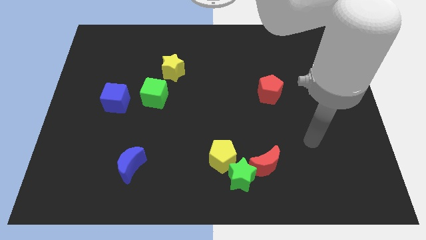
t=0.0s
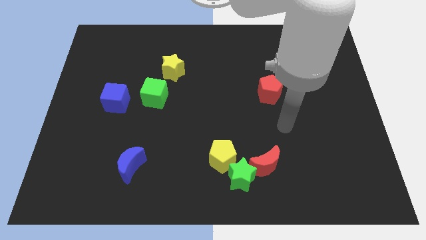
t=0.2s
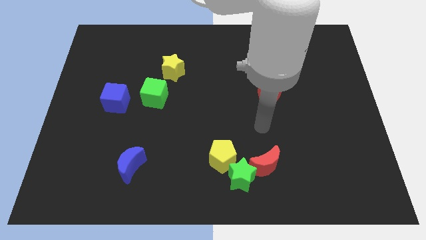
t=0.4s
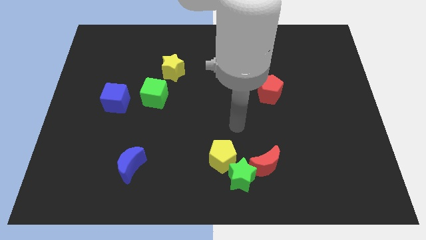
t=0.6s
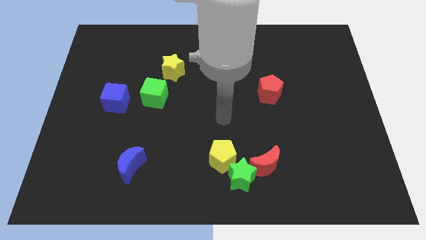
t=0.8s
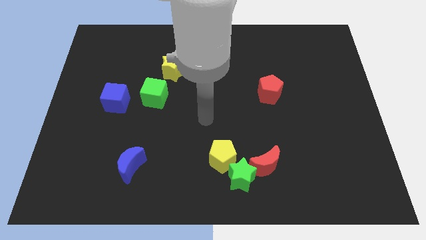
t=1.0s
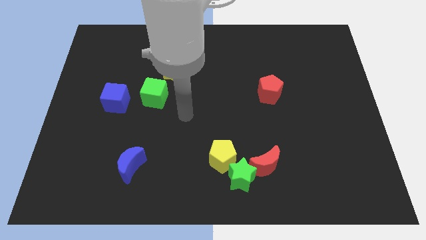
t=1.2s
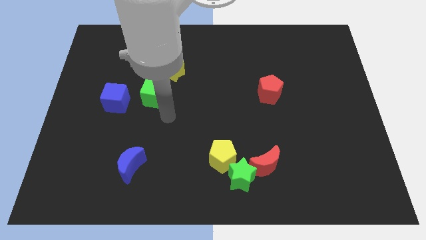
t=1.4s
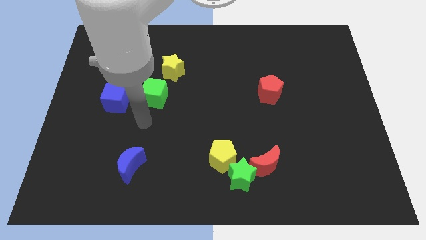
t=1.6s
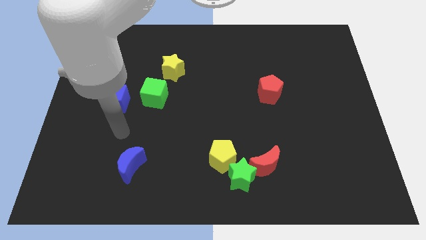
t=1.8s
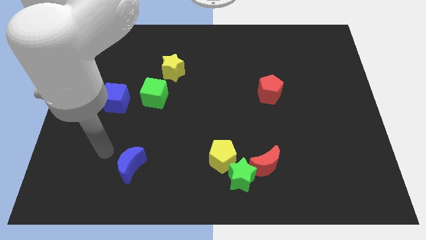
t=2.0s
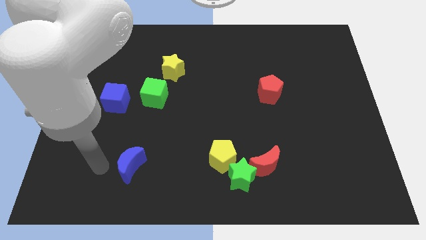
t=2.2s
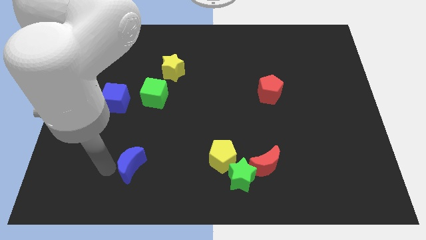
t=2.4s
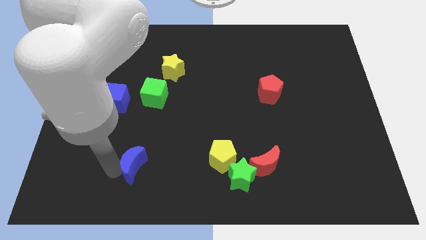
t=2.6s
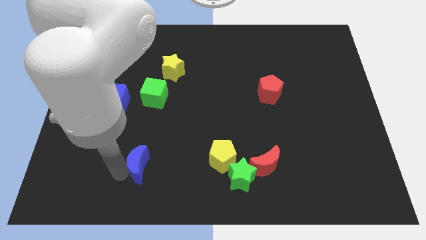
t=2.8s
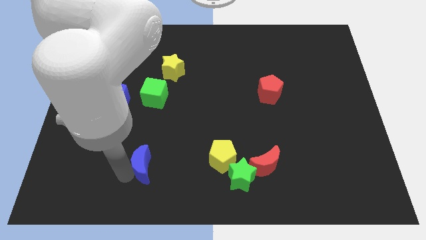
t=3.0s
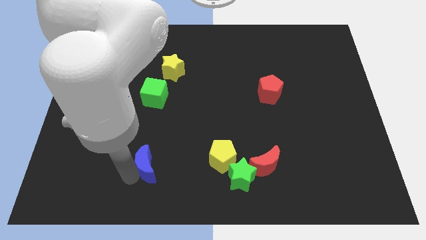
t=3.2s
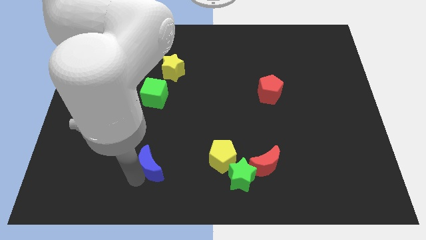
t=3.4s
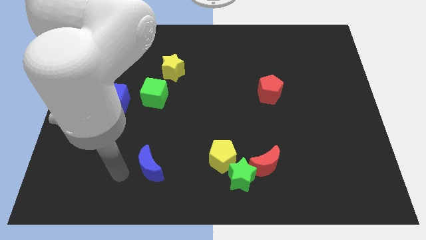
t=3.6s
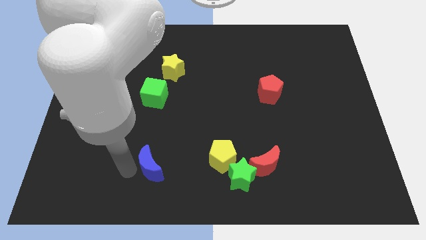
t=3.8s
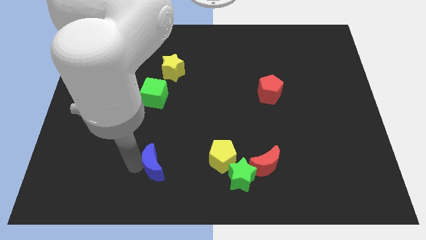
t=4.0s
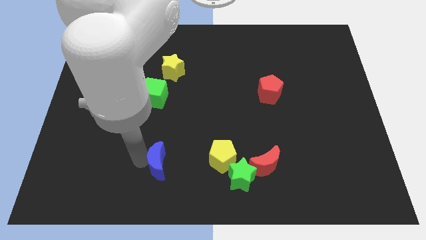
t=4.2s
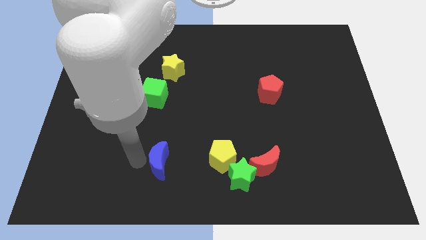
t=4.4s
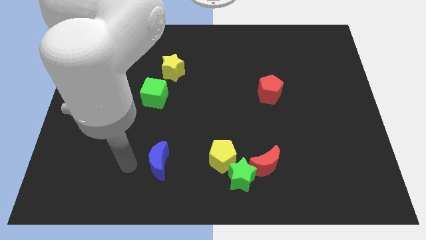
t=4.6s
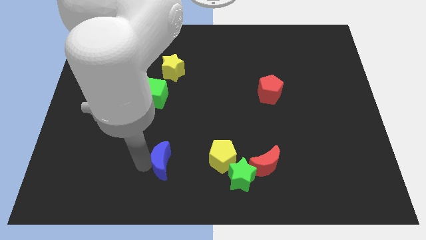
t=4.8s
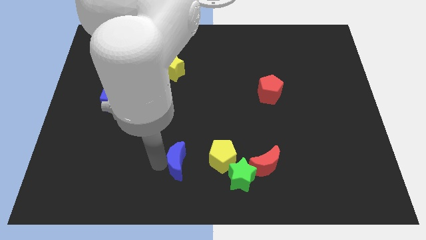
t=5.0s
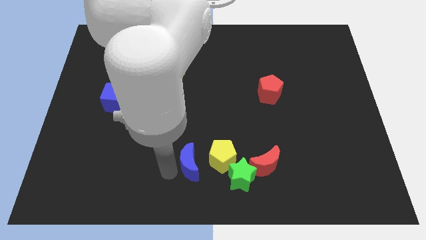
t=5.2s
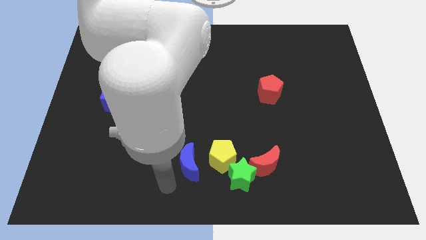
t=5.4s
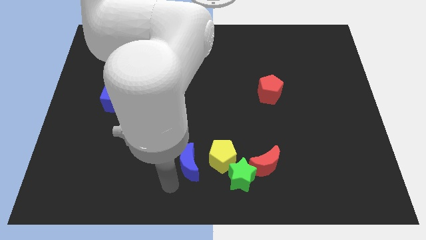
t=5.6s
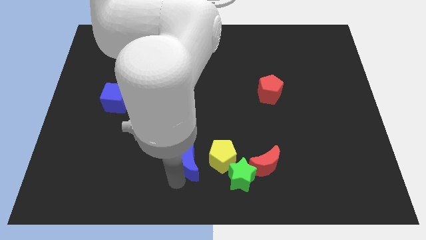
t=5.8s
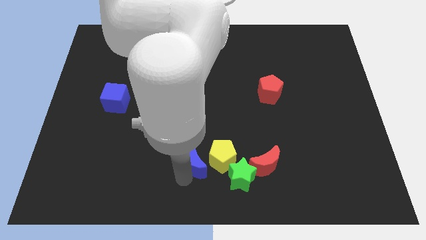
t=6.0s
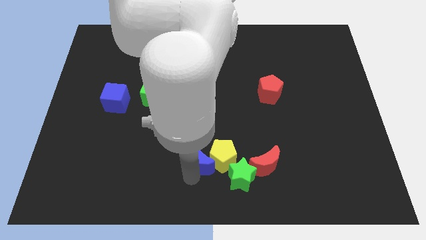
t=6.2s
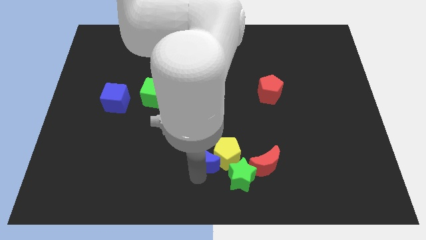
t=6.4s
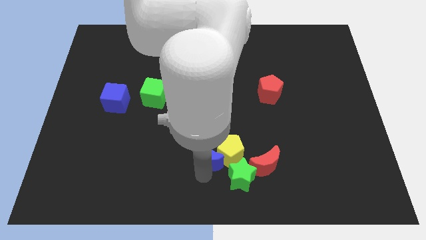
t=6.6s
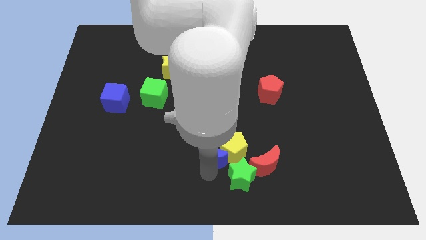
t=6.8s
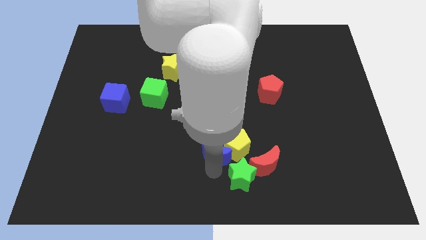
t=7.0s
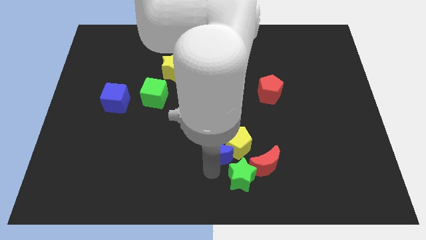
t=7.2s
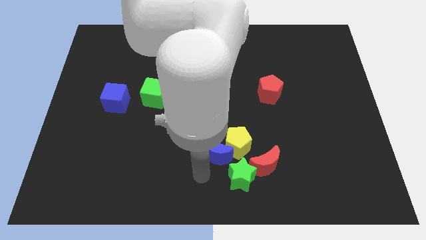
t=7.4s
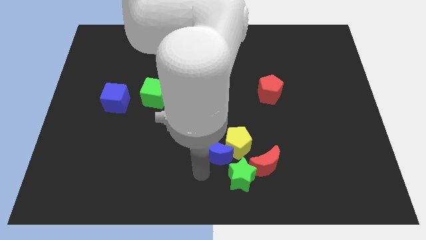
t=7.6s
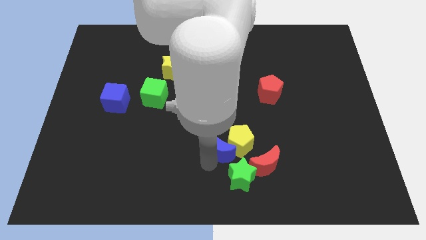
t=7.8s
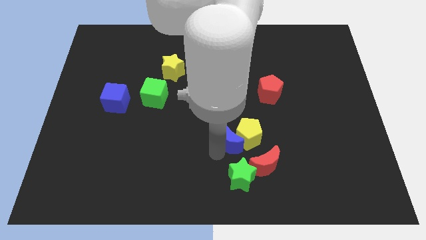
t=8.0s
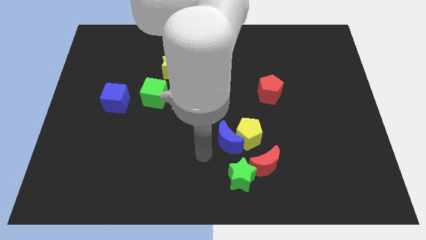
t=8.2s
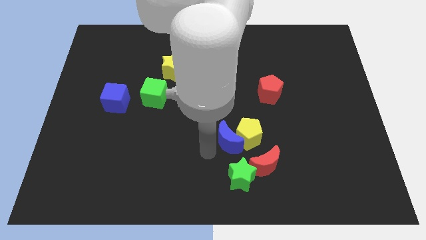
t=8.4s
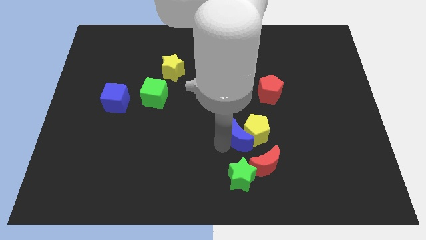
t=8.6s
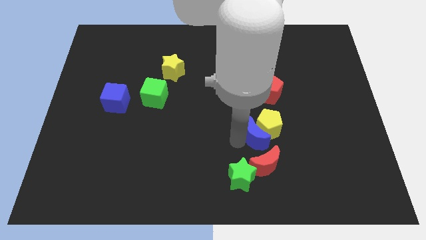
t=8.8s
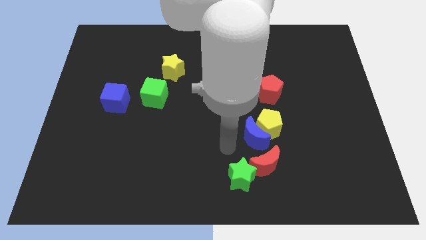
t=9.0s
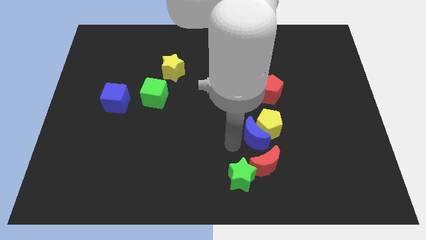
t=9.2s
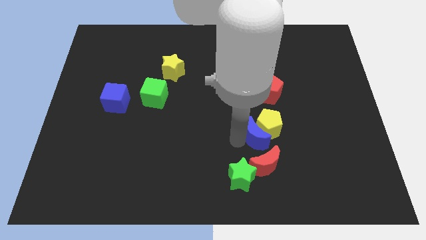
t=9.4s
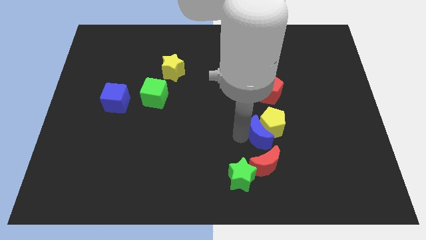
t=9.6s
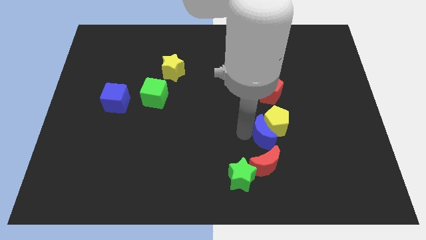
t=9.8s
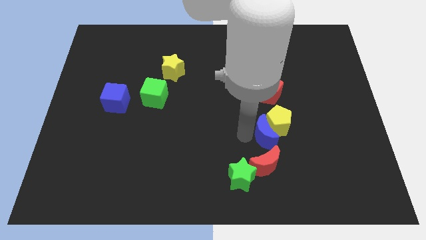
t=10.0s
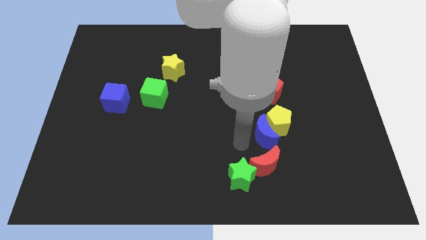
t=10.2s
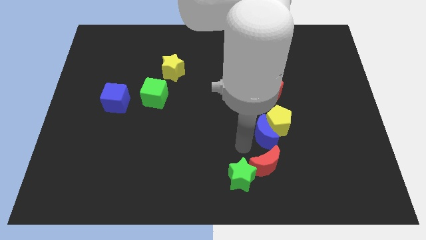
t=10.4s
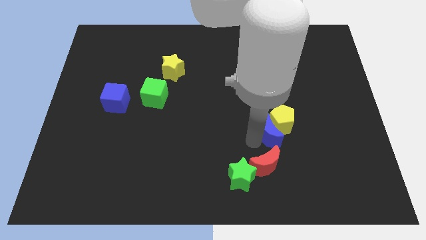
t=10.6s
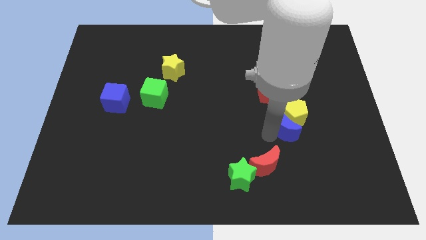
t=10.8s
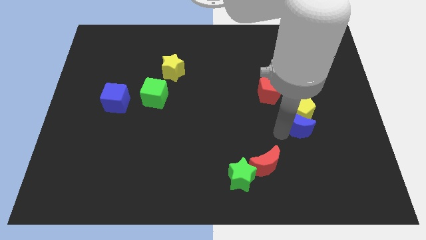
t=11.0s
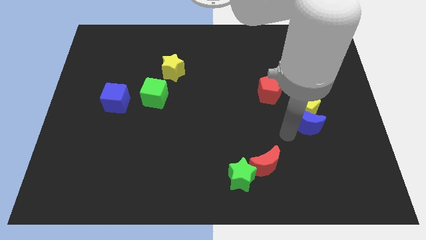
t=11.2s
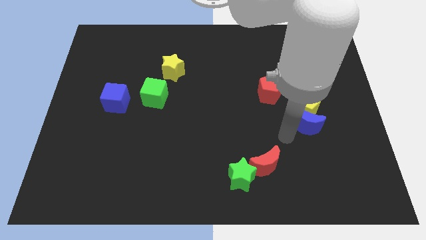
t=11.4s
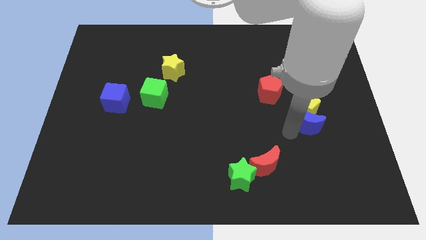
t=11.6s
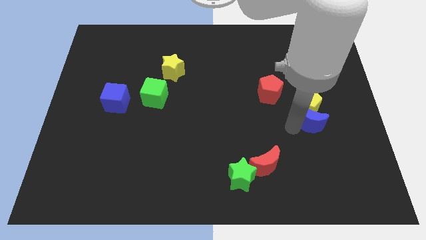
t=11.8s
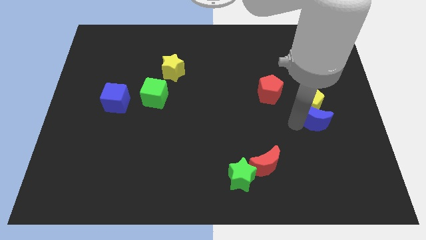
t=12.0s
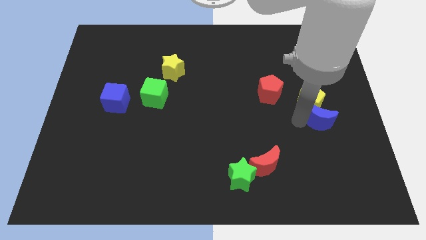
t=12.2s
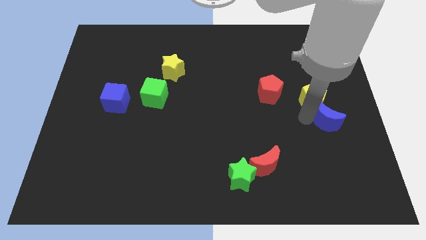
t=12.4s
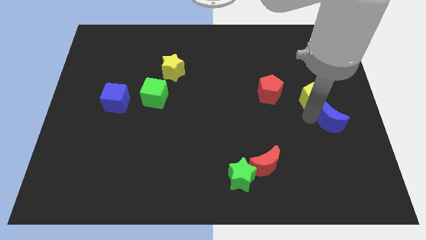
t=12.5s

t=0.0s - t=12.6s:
put the blue moon to the right side
